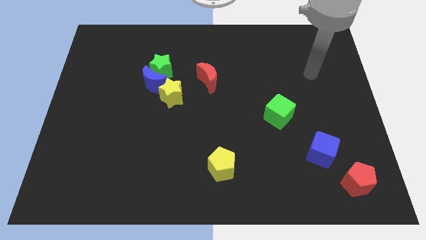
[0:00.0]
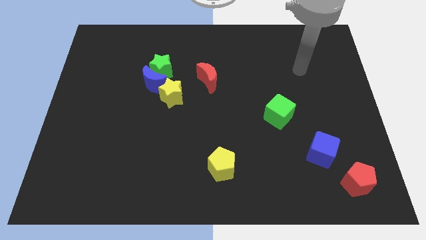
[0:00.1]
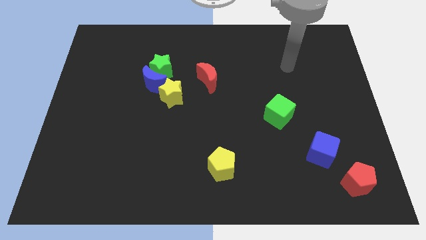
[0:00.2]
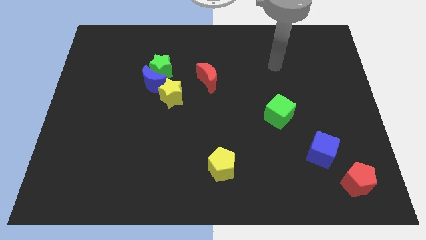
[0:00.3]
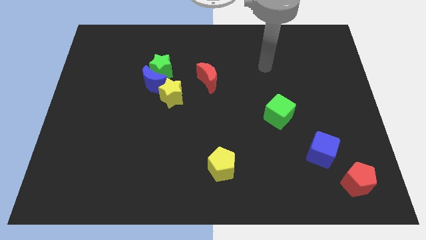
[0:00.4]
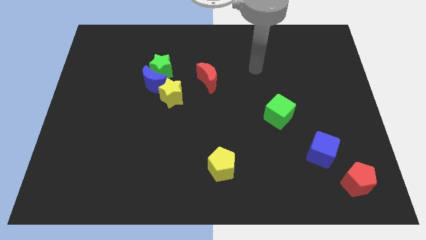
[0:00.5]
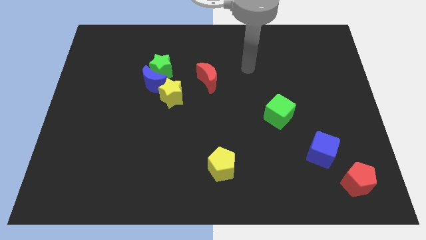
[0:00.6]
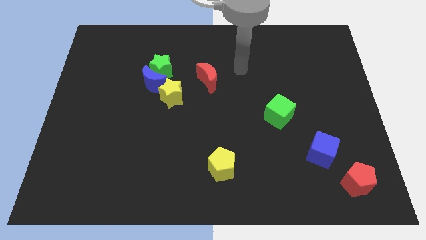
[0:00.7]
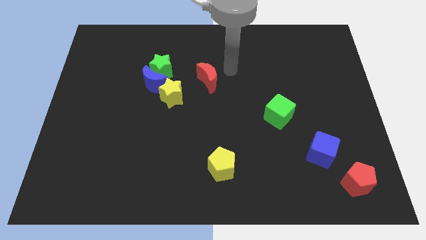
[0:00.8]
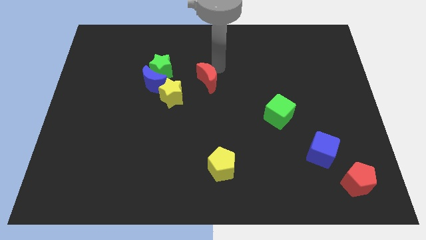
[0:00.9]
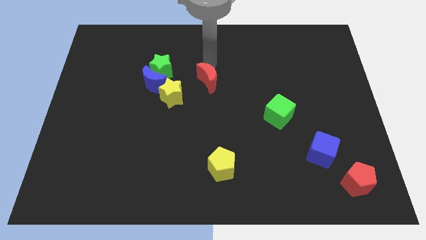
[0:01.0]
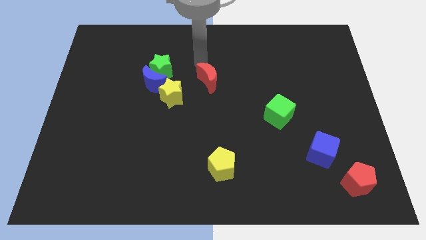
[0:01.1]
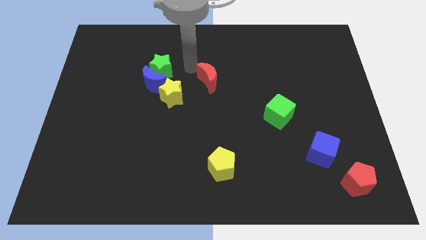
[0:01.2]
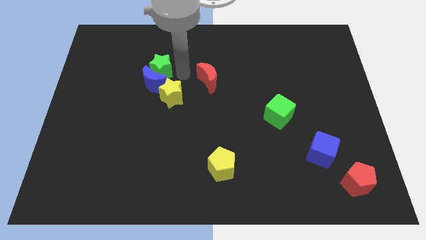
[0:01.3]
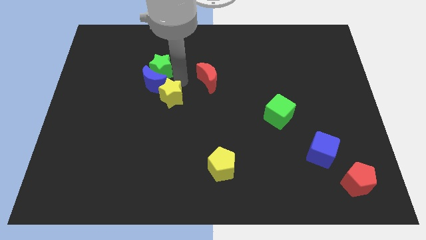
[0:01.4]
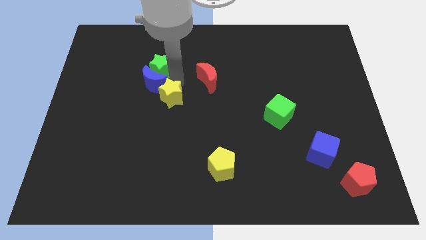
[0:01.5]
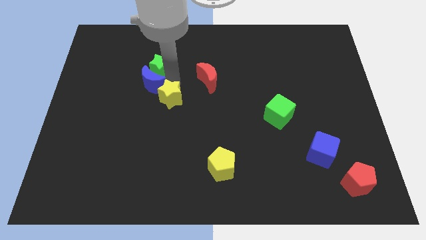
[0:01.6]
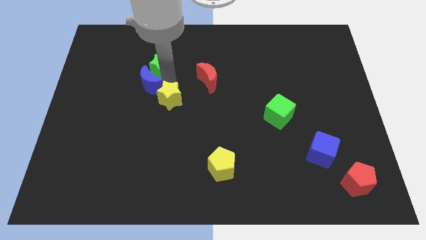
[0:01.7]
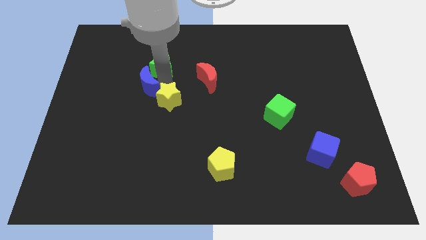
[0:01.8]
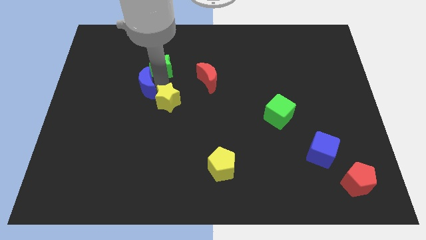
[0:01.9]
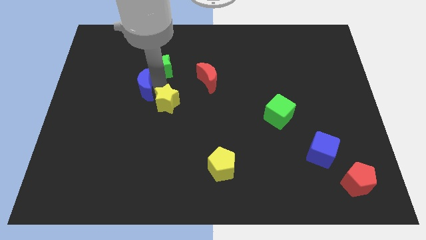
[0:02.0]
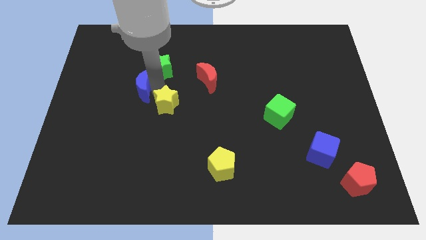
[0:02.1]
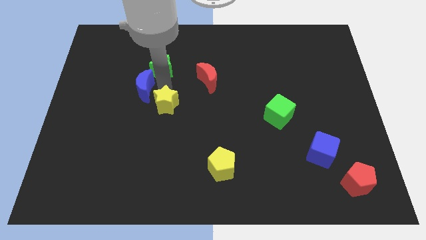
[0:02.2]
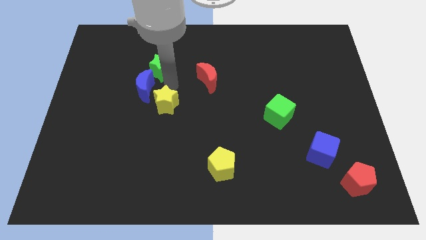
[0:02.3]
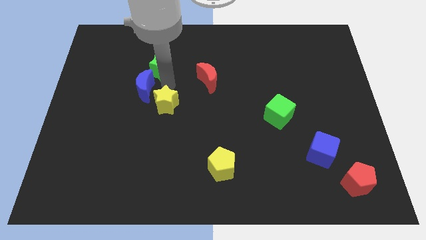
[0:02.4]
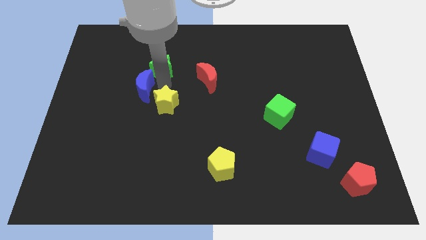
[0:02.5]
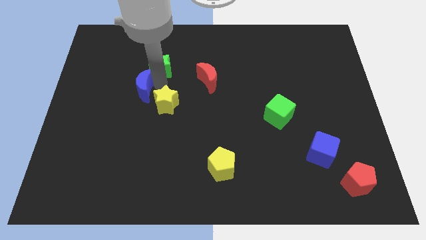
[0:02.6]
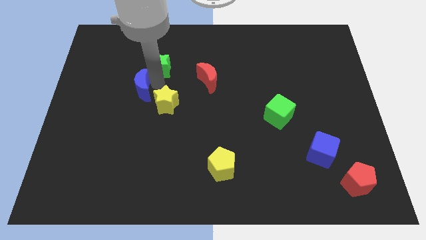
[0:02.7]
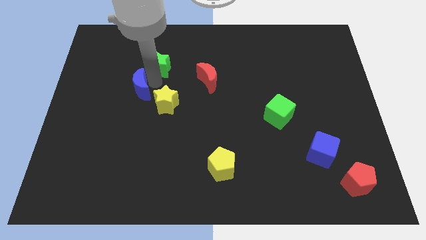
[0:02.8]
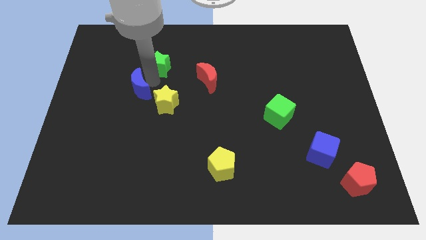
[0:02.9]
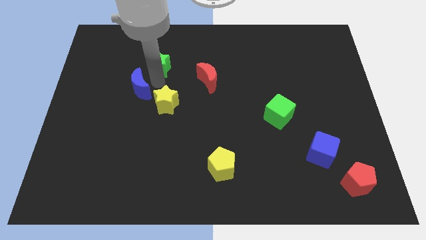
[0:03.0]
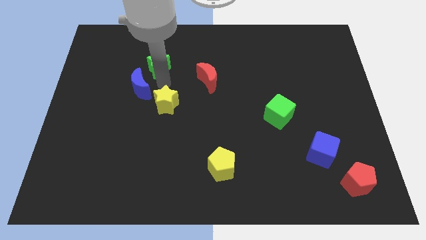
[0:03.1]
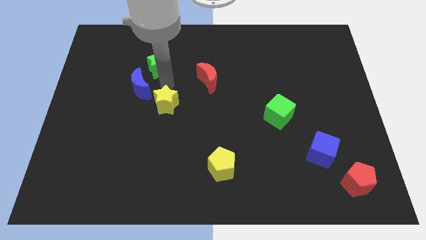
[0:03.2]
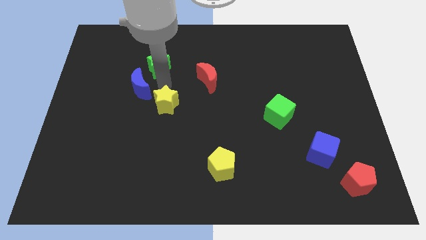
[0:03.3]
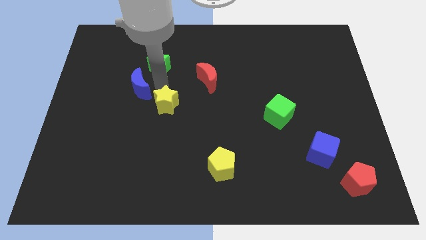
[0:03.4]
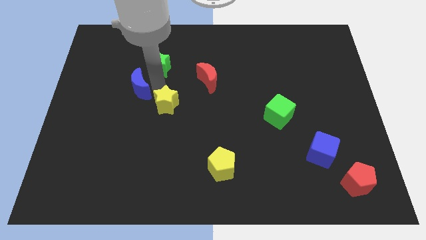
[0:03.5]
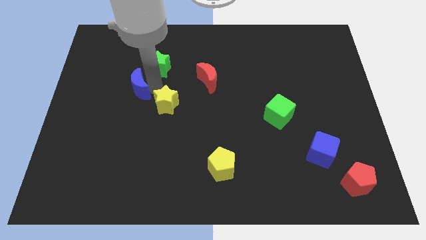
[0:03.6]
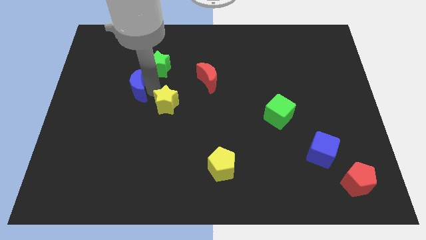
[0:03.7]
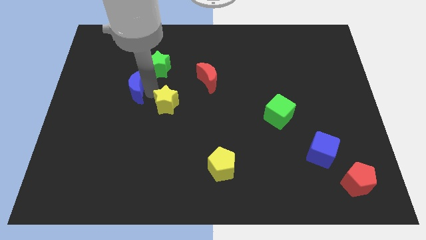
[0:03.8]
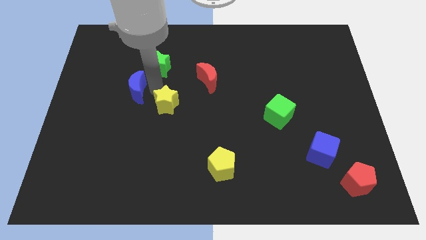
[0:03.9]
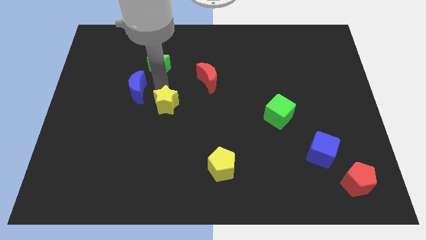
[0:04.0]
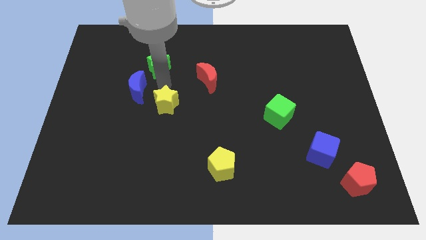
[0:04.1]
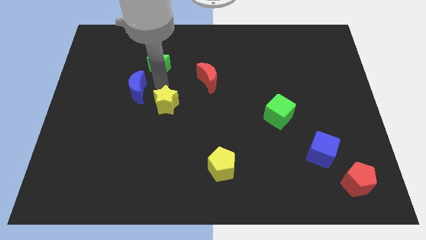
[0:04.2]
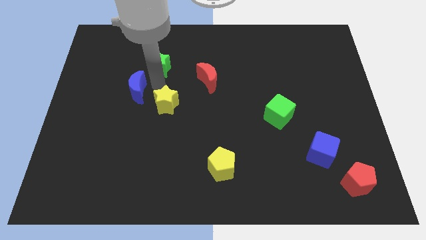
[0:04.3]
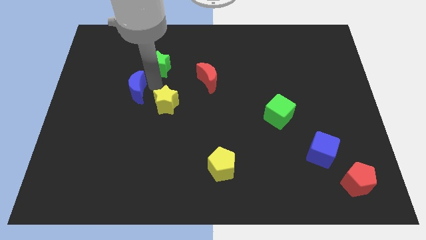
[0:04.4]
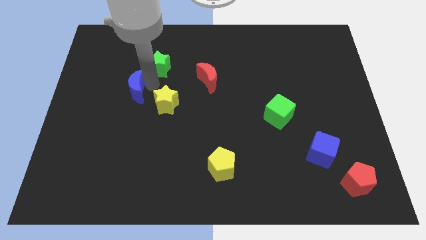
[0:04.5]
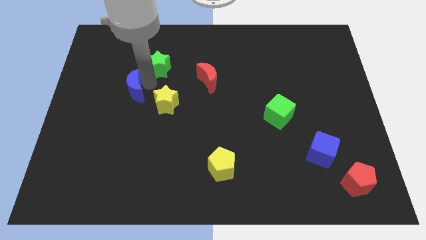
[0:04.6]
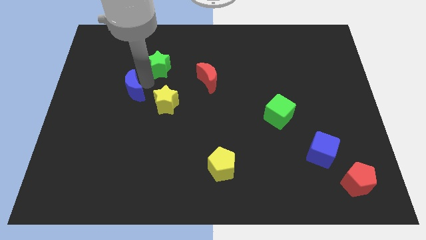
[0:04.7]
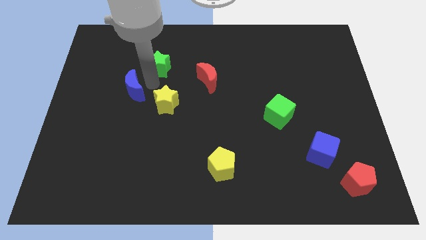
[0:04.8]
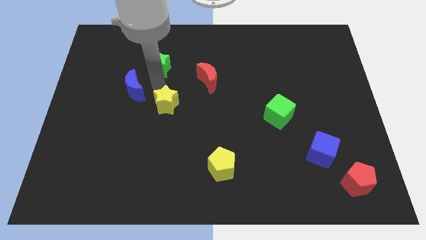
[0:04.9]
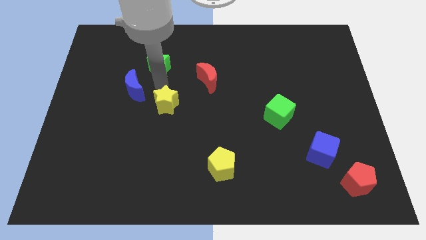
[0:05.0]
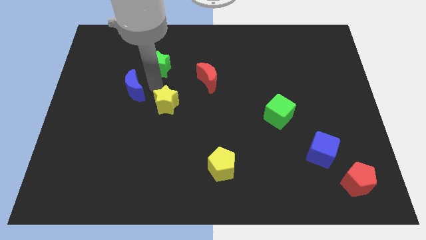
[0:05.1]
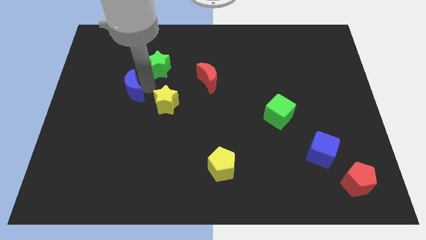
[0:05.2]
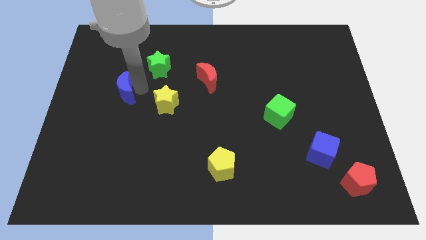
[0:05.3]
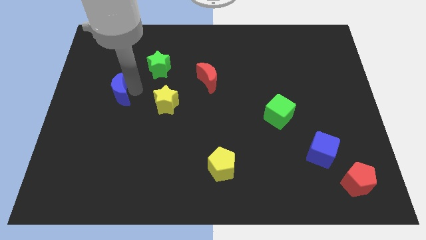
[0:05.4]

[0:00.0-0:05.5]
move the blue moon away from the green star and yellow star

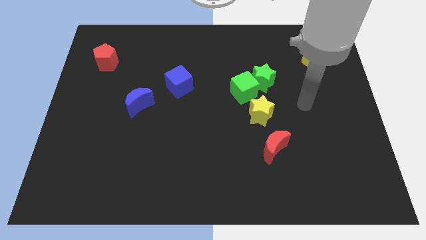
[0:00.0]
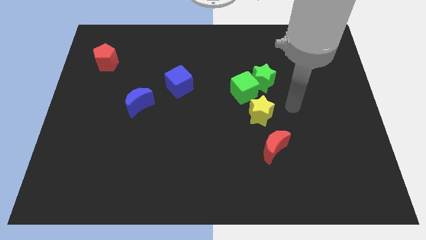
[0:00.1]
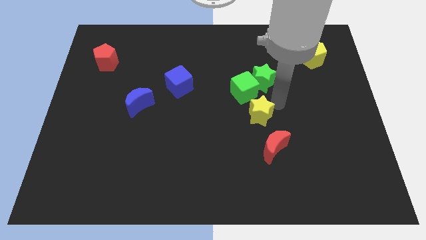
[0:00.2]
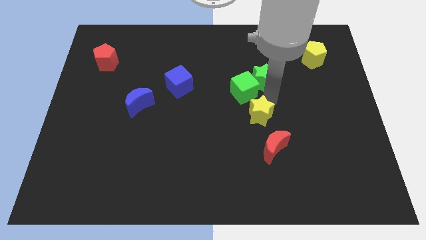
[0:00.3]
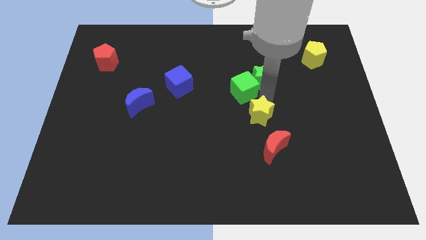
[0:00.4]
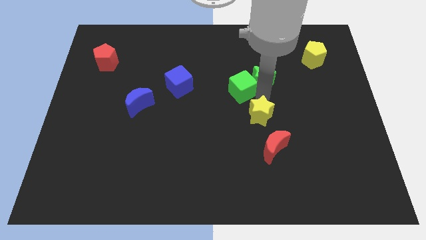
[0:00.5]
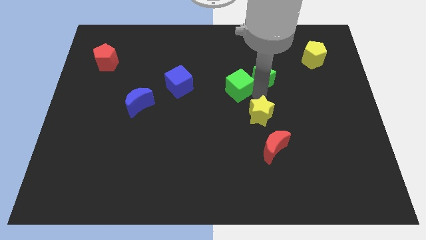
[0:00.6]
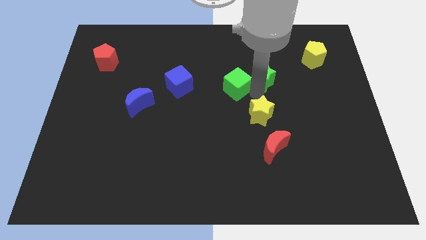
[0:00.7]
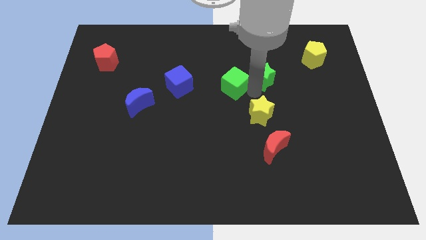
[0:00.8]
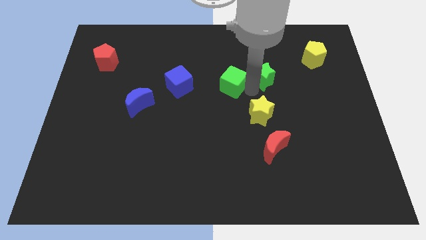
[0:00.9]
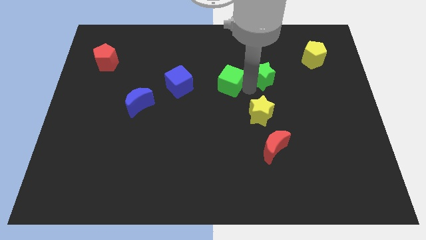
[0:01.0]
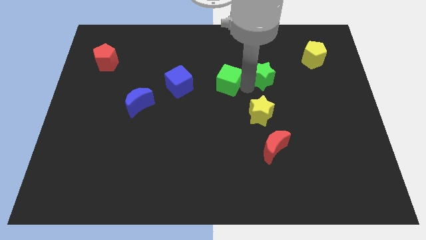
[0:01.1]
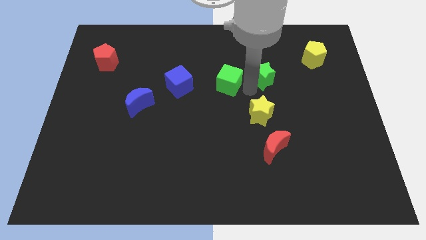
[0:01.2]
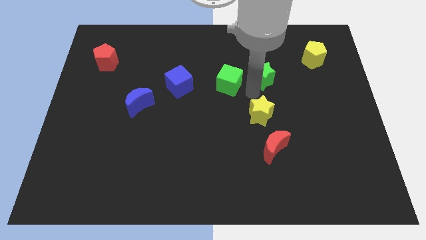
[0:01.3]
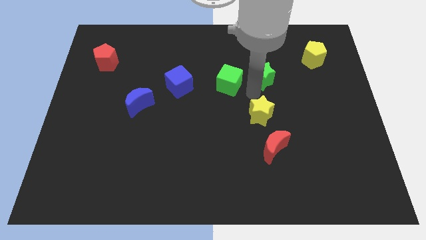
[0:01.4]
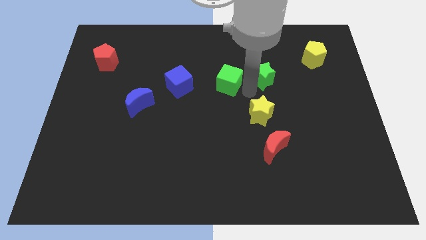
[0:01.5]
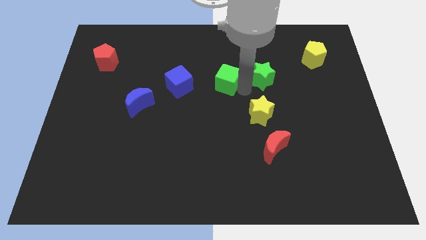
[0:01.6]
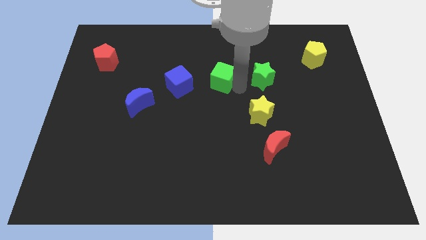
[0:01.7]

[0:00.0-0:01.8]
move the green cube away from the green star and yellow star

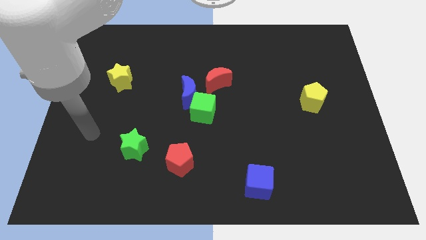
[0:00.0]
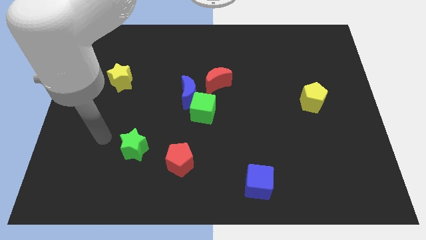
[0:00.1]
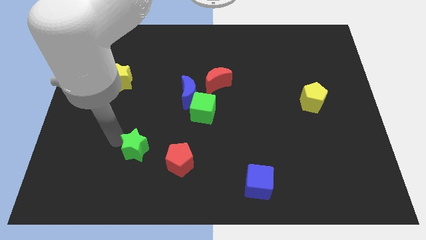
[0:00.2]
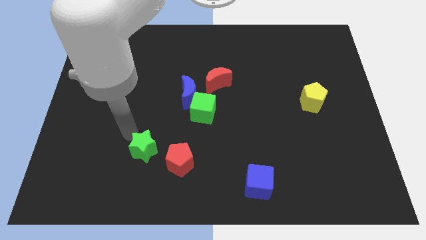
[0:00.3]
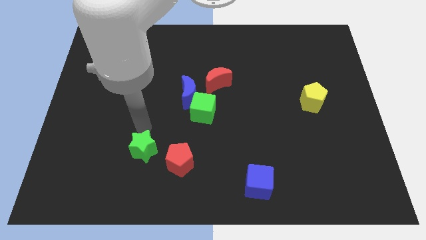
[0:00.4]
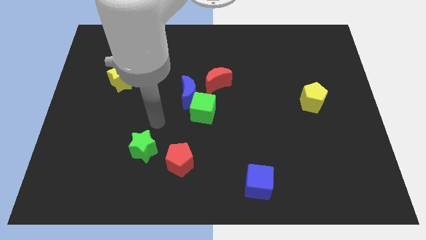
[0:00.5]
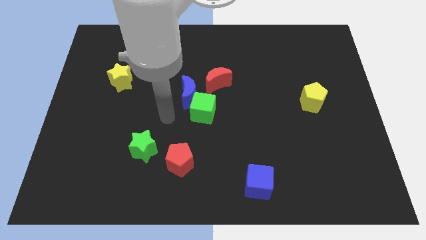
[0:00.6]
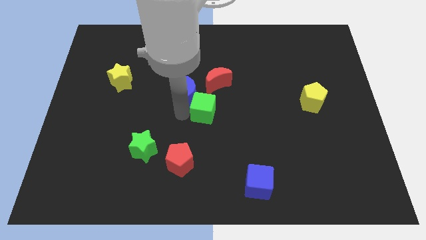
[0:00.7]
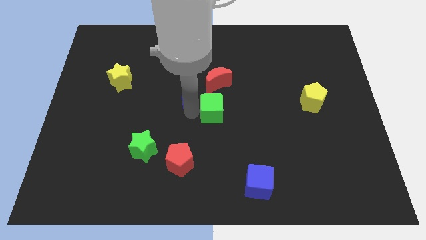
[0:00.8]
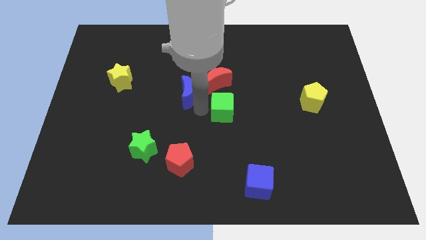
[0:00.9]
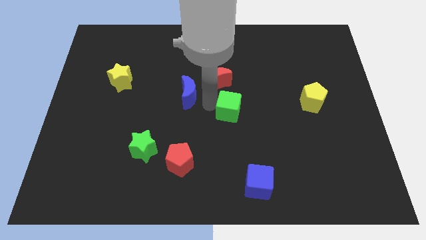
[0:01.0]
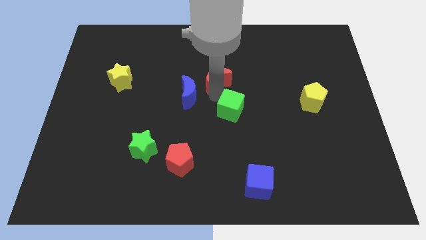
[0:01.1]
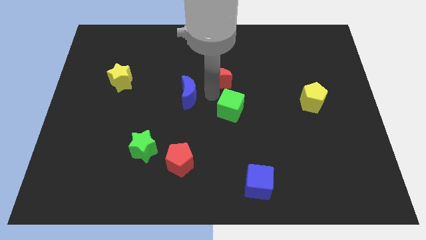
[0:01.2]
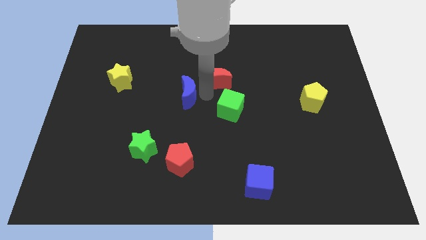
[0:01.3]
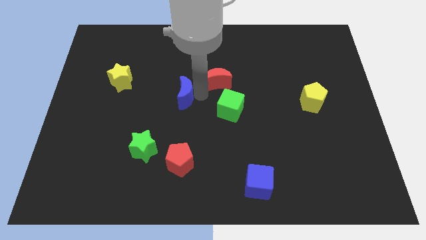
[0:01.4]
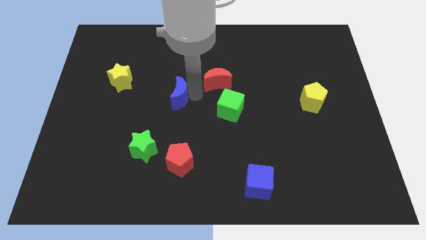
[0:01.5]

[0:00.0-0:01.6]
separate the blue moon from the green cube and red moon

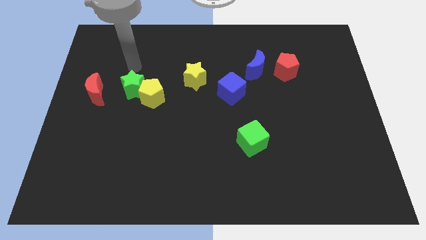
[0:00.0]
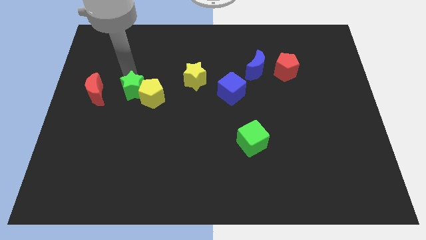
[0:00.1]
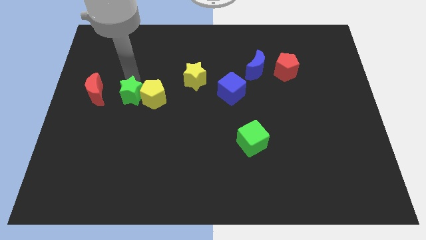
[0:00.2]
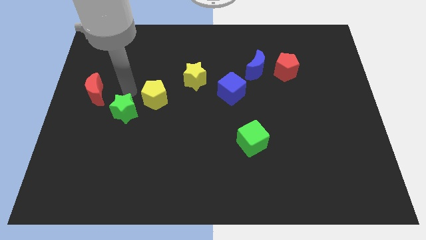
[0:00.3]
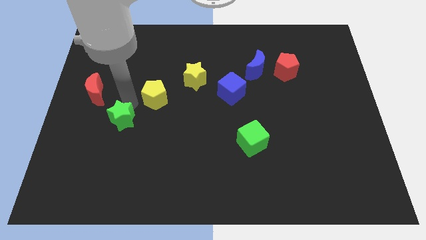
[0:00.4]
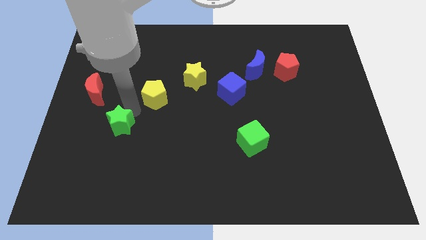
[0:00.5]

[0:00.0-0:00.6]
separate the yellow pentagon from the green star
